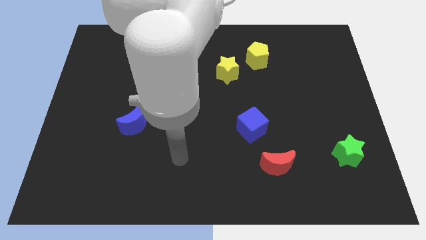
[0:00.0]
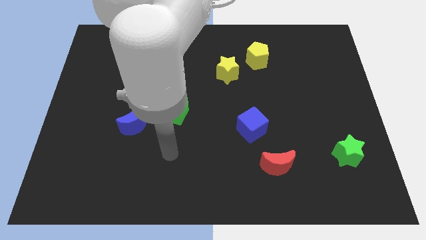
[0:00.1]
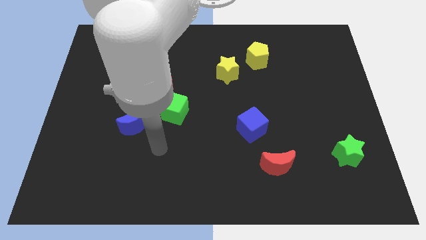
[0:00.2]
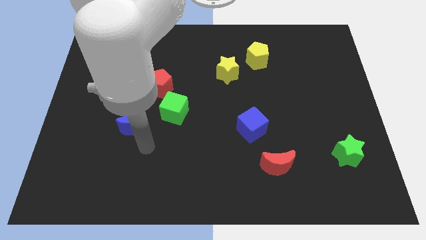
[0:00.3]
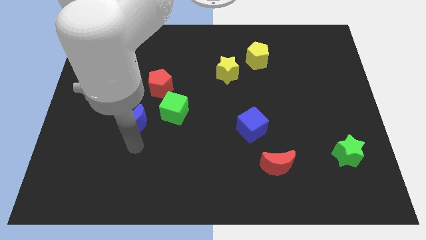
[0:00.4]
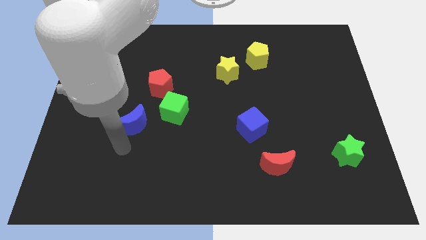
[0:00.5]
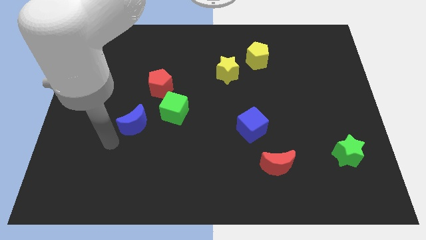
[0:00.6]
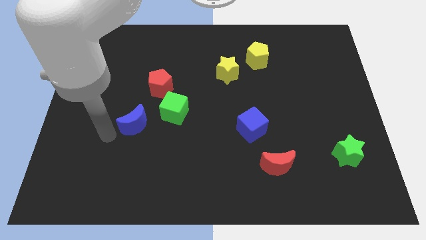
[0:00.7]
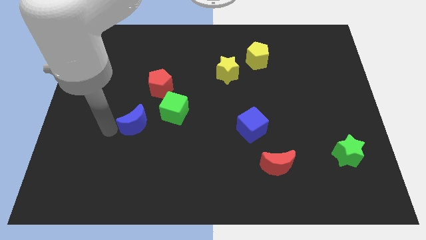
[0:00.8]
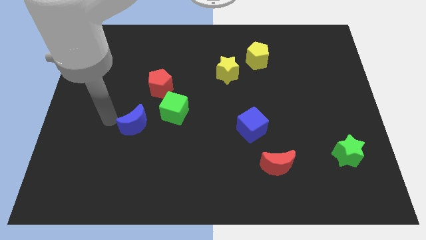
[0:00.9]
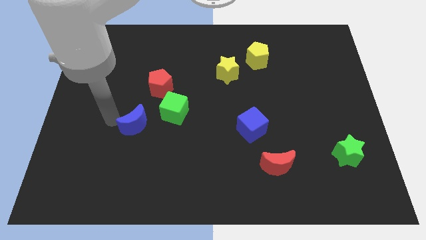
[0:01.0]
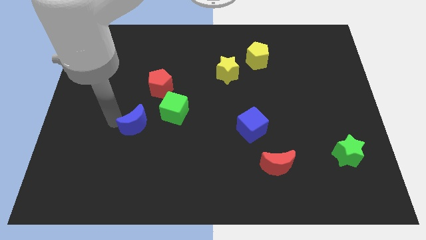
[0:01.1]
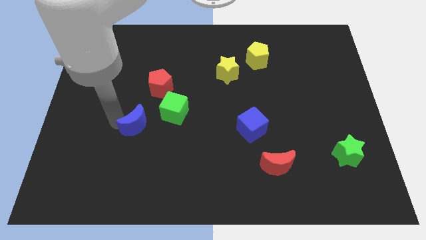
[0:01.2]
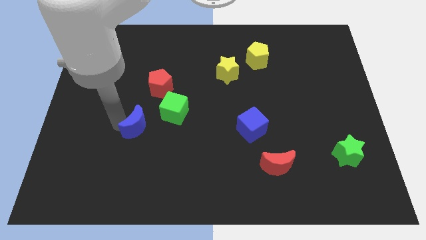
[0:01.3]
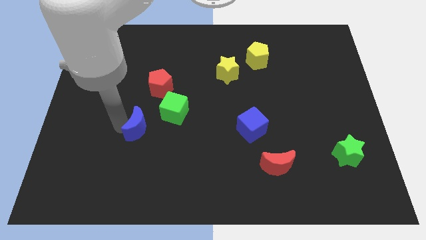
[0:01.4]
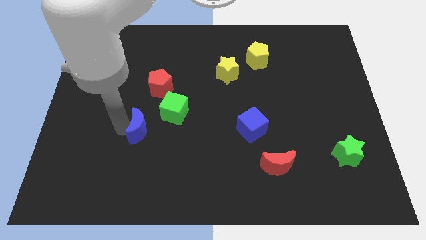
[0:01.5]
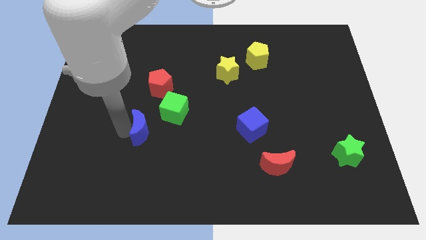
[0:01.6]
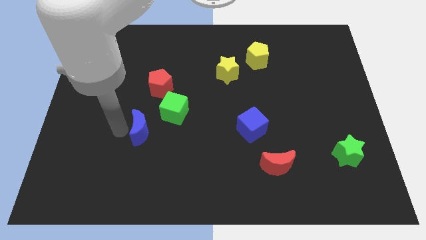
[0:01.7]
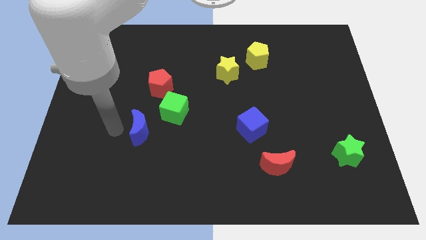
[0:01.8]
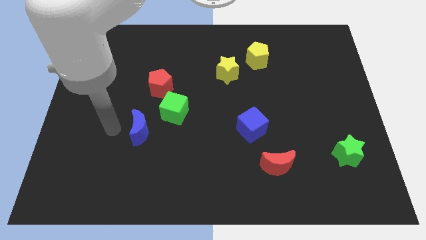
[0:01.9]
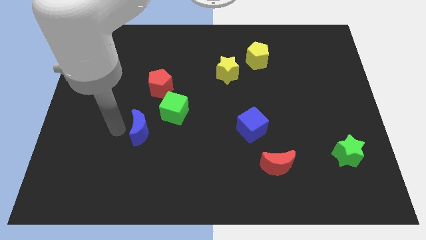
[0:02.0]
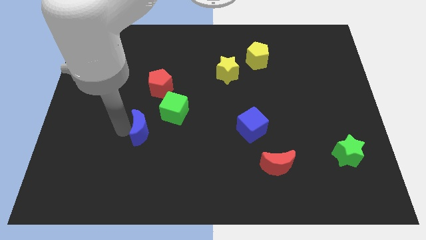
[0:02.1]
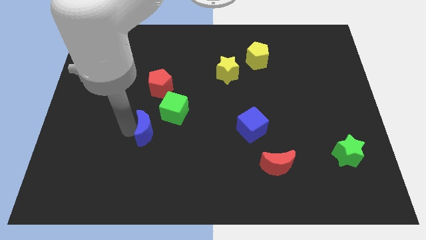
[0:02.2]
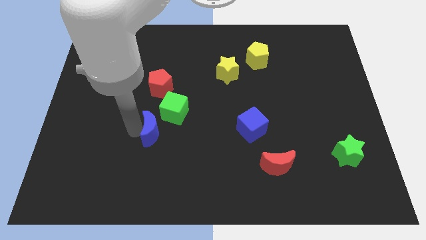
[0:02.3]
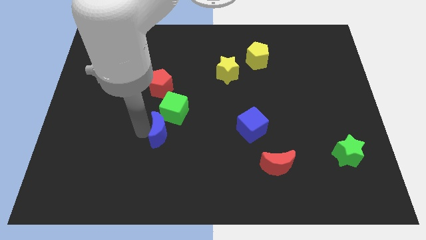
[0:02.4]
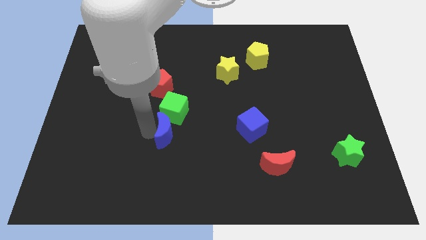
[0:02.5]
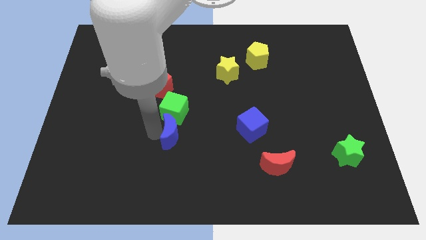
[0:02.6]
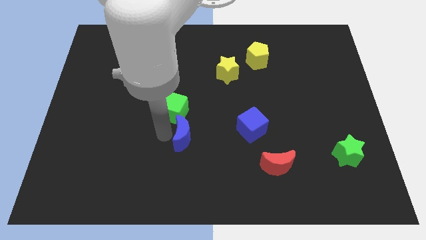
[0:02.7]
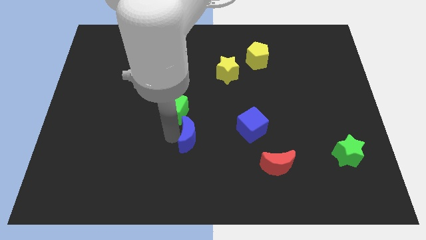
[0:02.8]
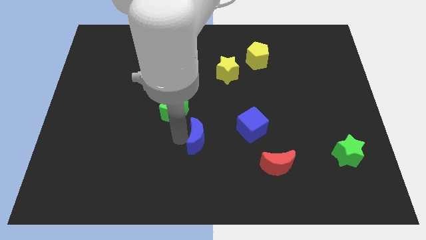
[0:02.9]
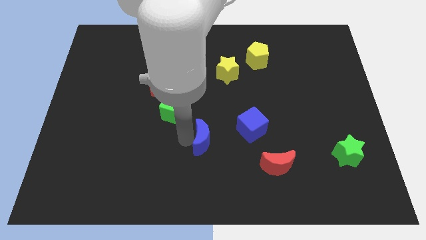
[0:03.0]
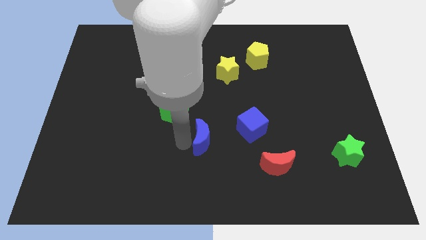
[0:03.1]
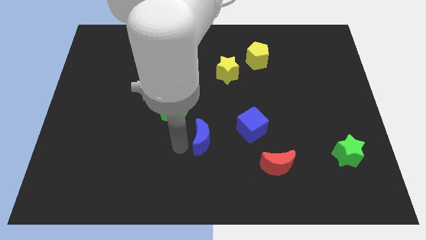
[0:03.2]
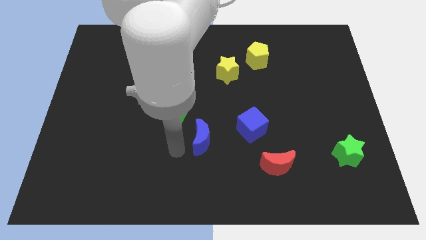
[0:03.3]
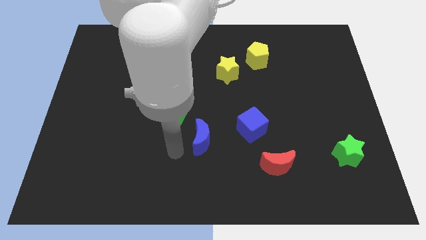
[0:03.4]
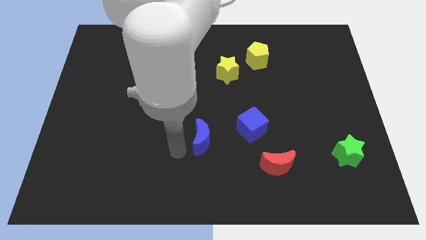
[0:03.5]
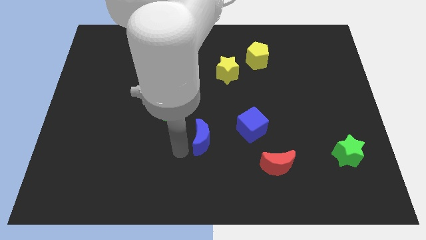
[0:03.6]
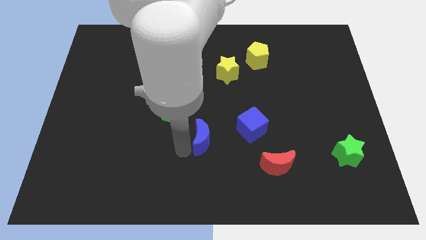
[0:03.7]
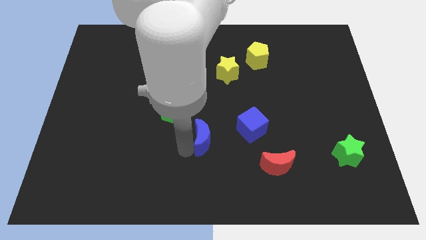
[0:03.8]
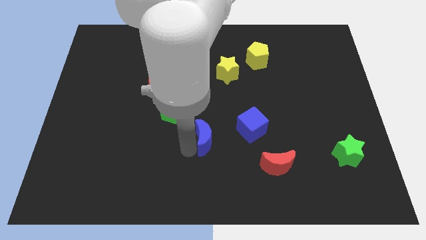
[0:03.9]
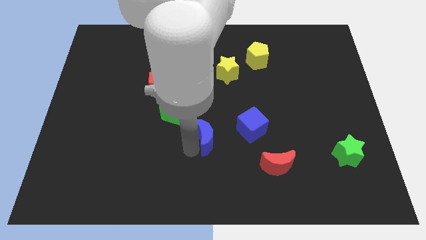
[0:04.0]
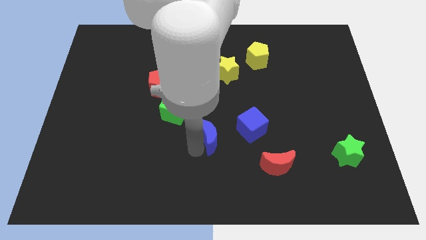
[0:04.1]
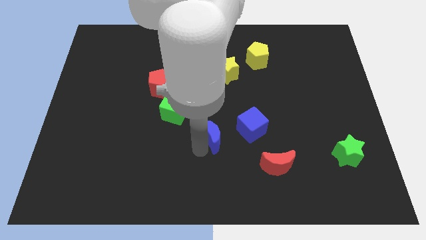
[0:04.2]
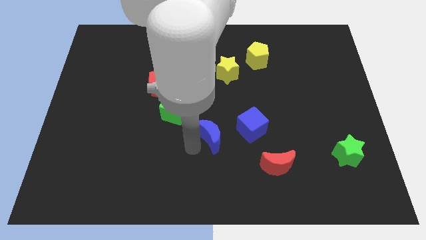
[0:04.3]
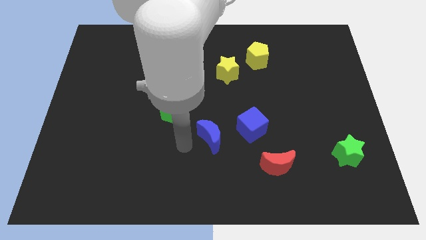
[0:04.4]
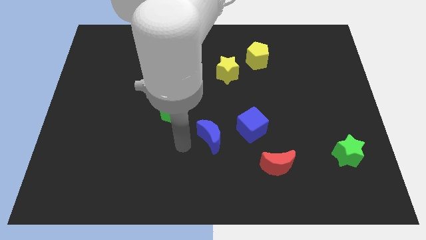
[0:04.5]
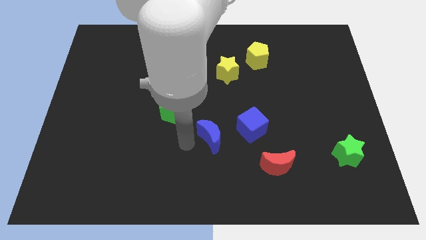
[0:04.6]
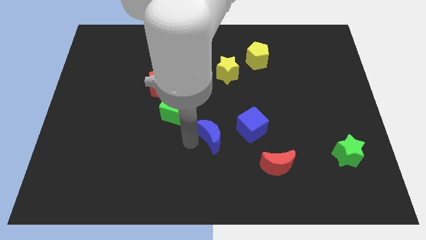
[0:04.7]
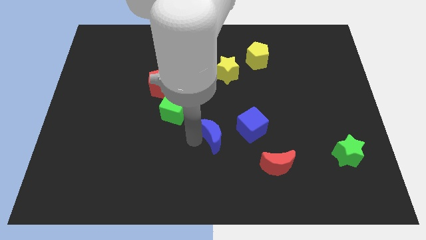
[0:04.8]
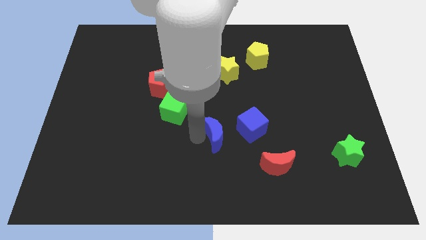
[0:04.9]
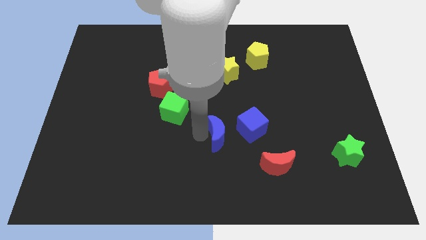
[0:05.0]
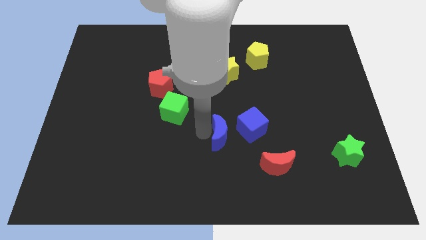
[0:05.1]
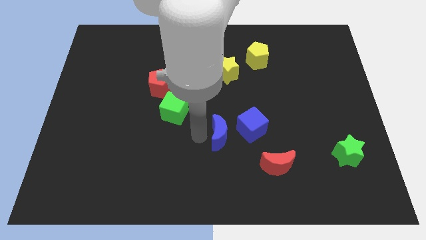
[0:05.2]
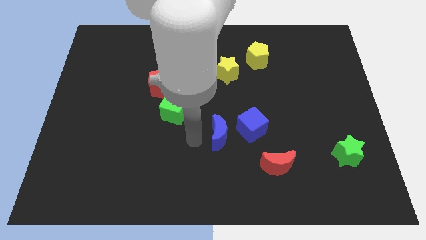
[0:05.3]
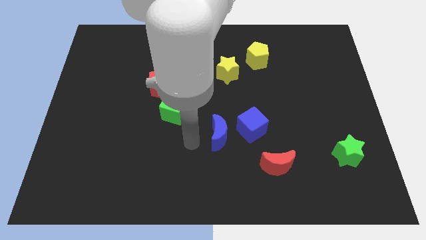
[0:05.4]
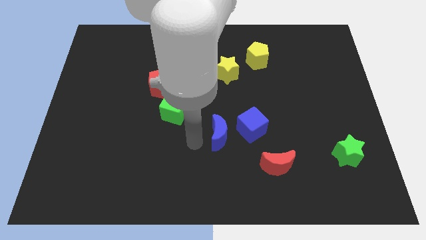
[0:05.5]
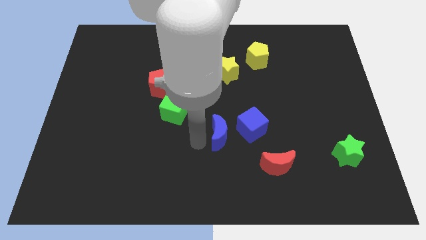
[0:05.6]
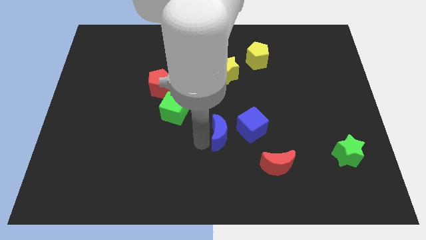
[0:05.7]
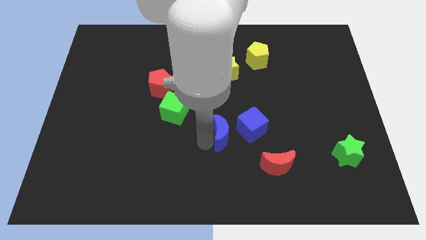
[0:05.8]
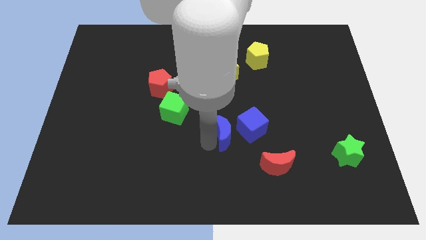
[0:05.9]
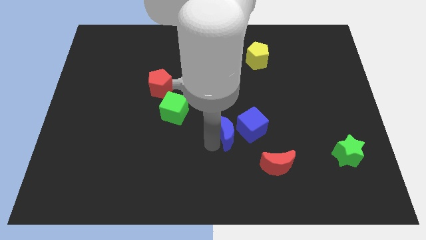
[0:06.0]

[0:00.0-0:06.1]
put the blue moon towards the blue cube

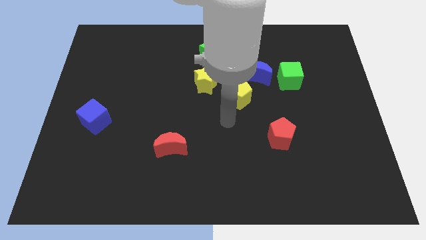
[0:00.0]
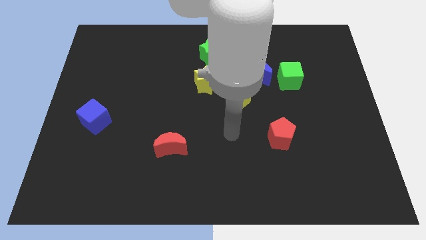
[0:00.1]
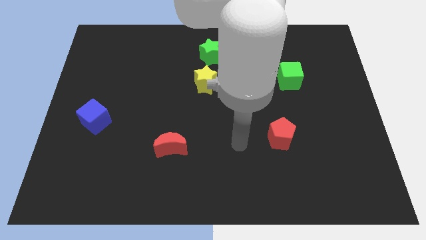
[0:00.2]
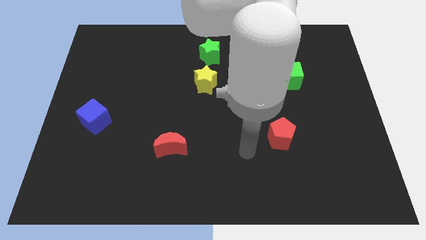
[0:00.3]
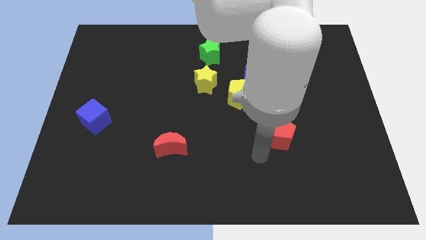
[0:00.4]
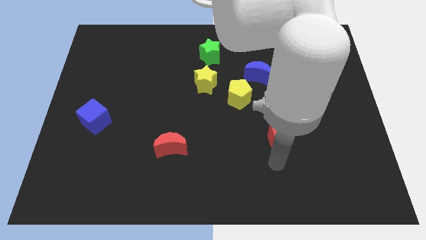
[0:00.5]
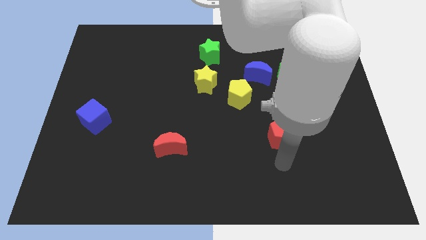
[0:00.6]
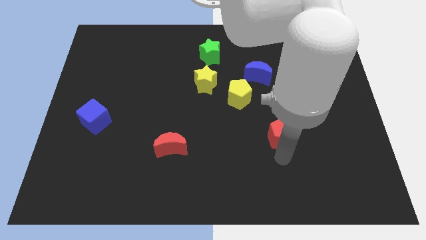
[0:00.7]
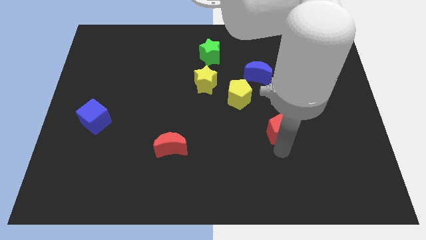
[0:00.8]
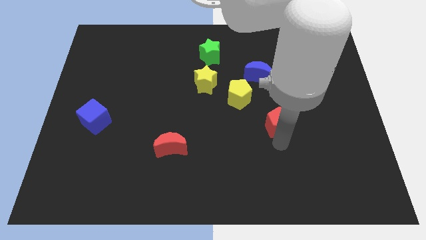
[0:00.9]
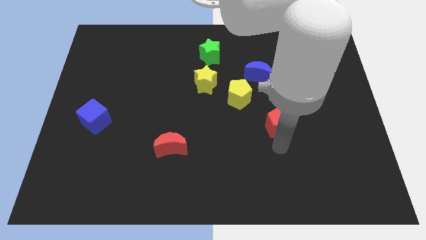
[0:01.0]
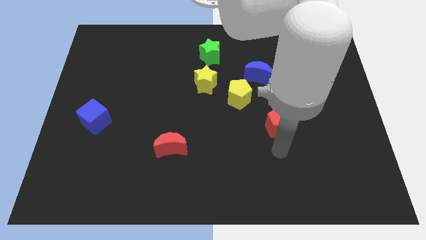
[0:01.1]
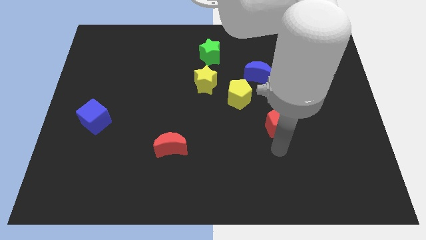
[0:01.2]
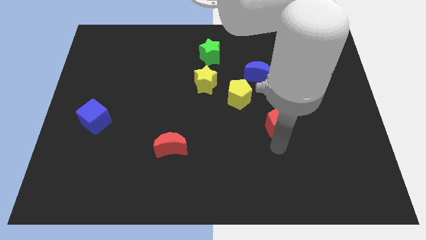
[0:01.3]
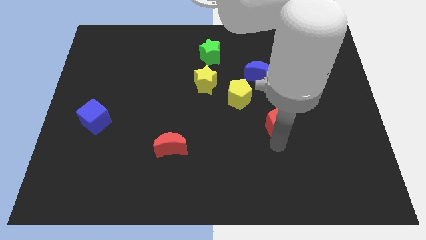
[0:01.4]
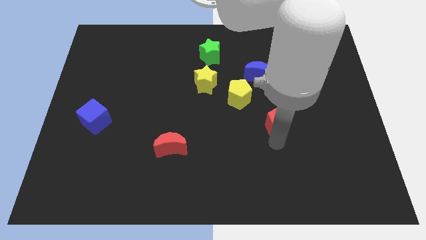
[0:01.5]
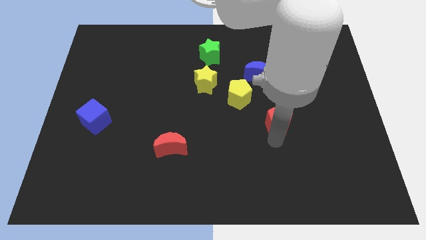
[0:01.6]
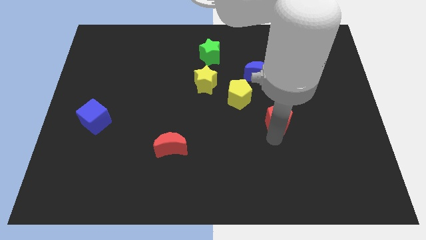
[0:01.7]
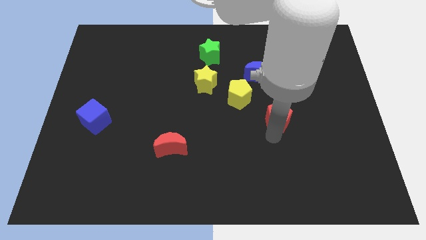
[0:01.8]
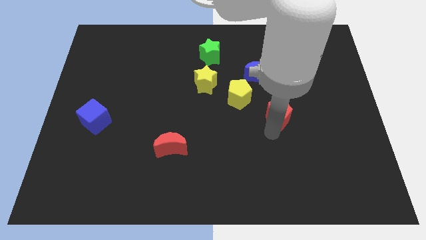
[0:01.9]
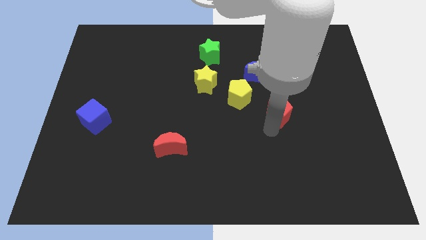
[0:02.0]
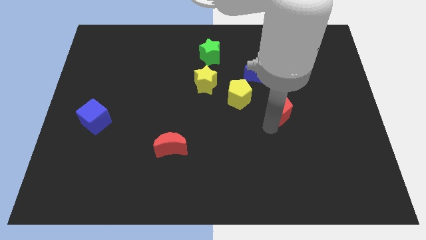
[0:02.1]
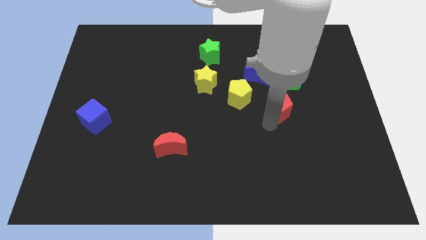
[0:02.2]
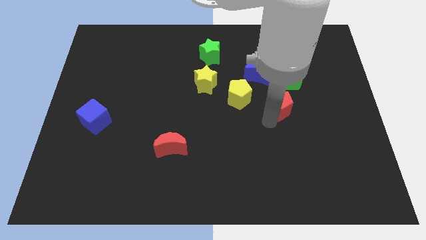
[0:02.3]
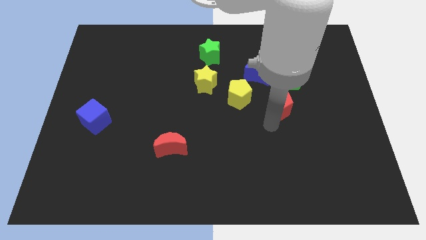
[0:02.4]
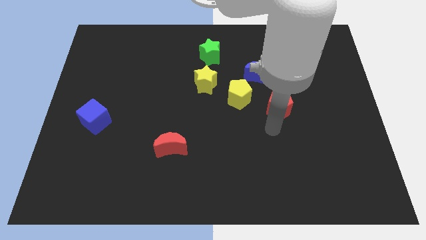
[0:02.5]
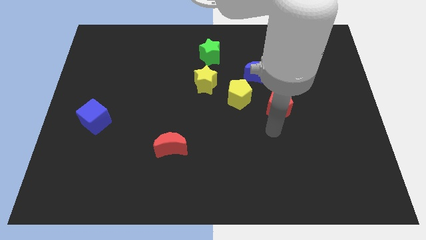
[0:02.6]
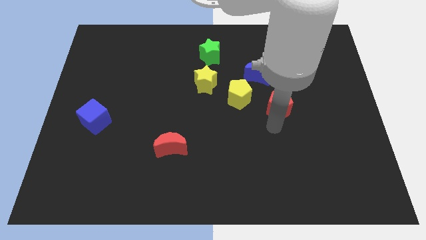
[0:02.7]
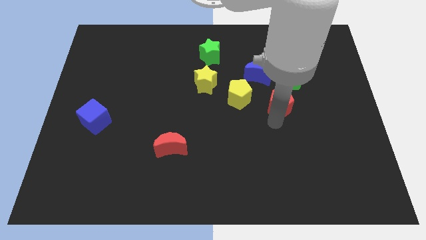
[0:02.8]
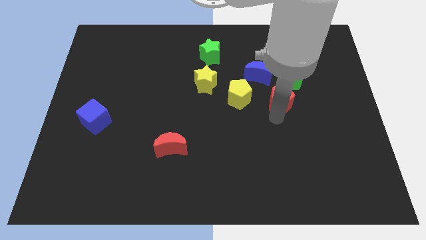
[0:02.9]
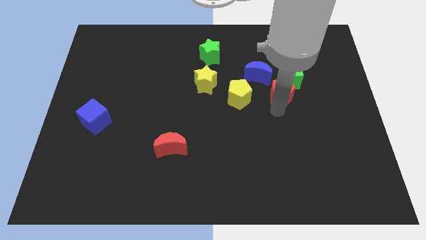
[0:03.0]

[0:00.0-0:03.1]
push the red pentagon next to the green cube
